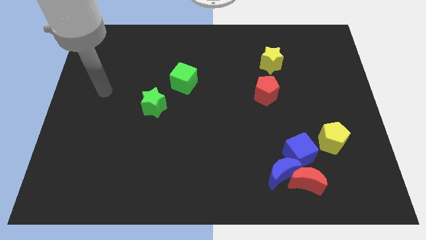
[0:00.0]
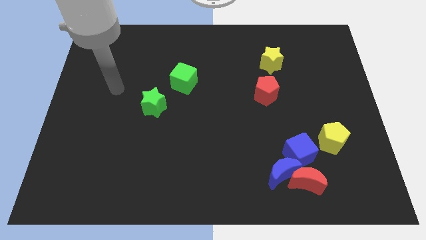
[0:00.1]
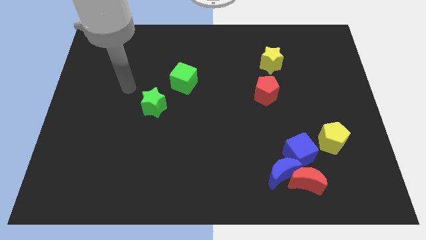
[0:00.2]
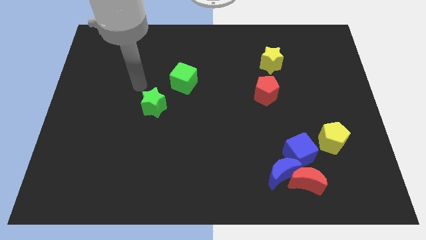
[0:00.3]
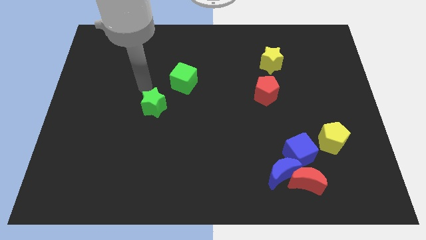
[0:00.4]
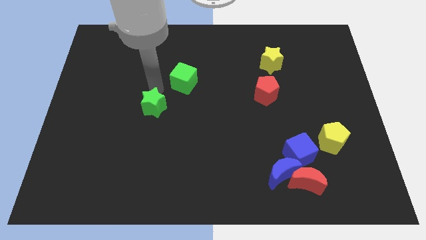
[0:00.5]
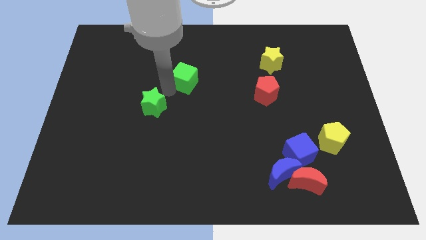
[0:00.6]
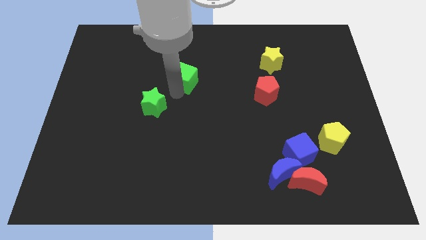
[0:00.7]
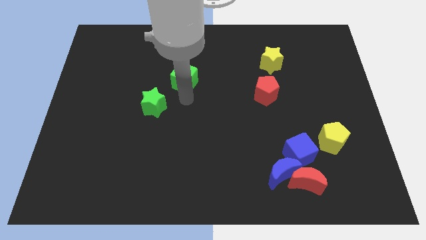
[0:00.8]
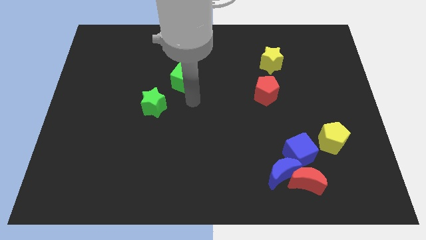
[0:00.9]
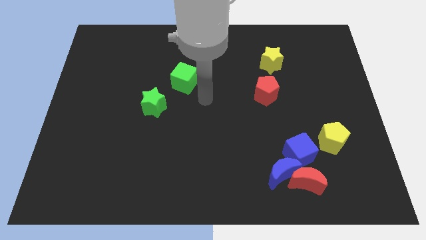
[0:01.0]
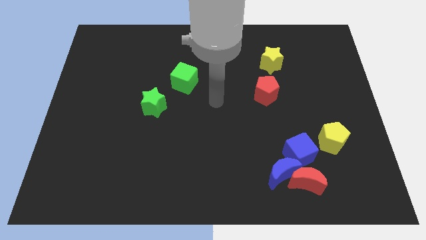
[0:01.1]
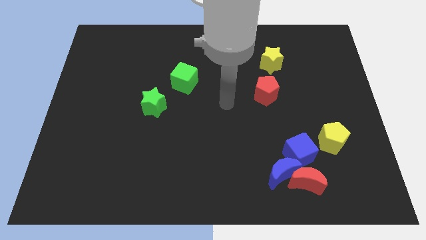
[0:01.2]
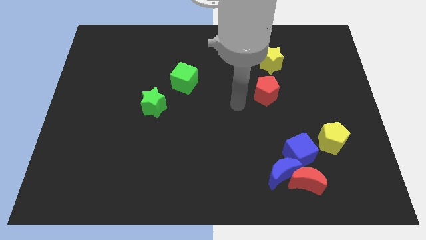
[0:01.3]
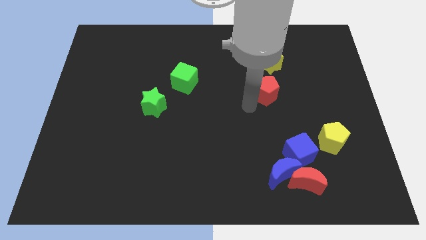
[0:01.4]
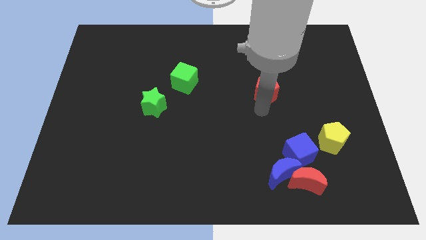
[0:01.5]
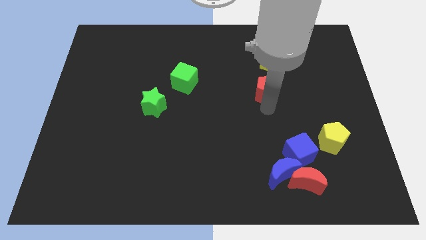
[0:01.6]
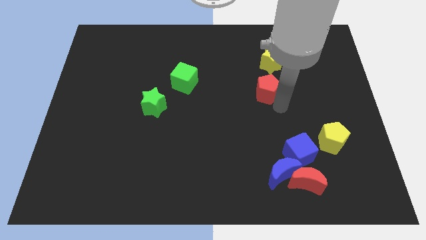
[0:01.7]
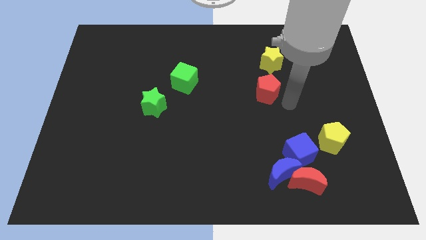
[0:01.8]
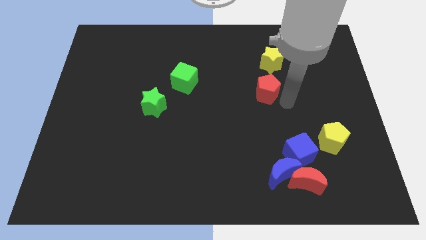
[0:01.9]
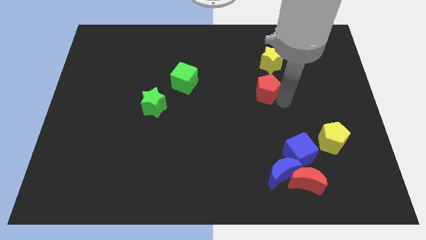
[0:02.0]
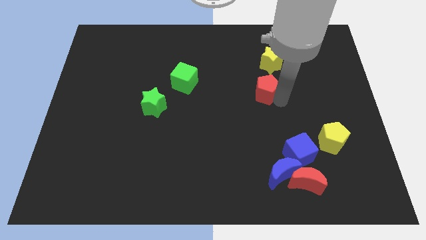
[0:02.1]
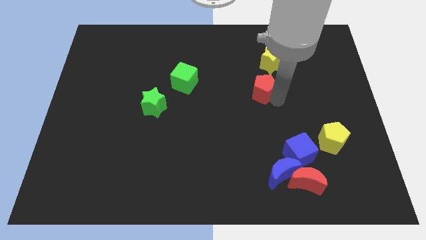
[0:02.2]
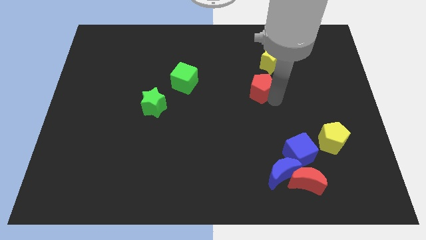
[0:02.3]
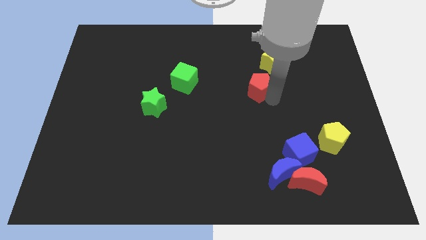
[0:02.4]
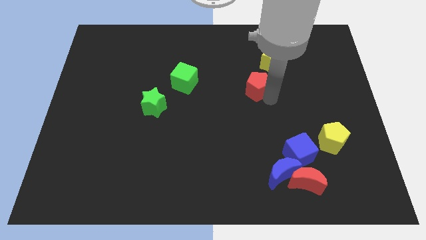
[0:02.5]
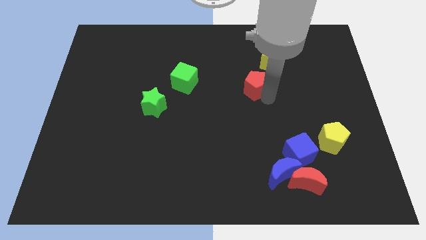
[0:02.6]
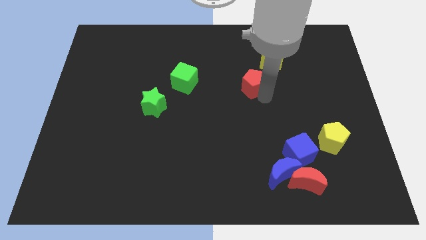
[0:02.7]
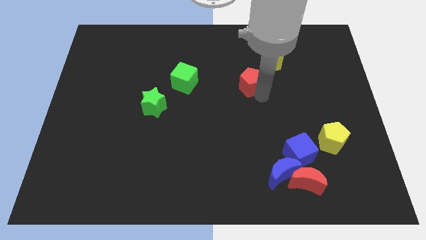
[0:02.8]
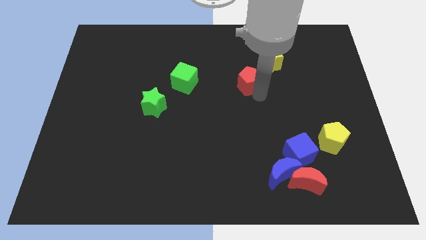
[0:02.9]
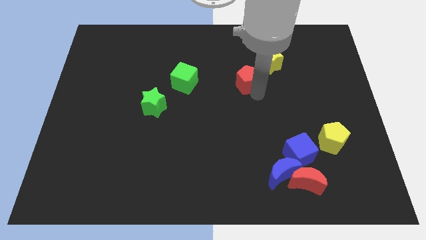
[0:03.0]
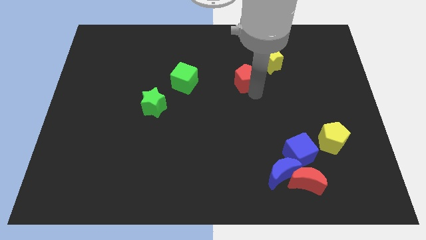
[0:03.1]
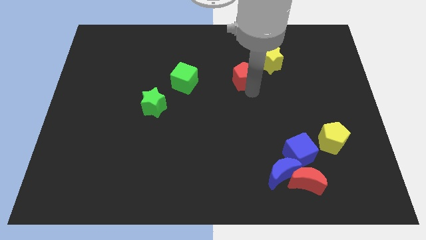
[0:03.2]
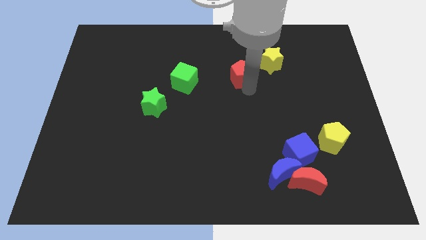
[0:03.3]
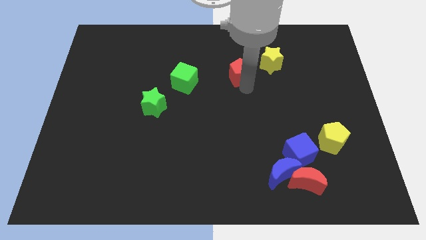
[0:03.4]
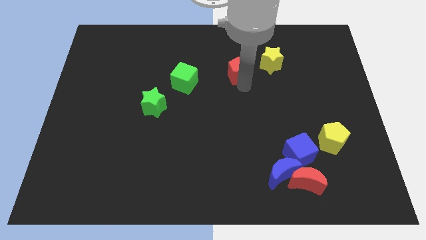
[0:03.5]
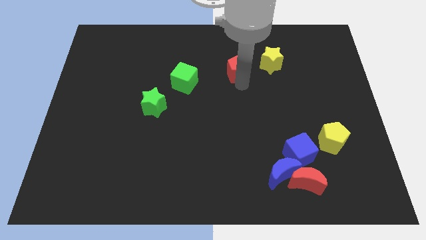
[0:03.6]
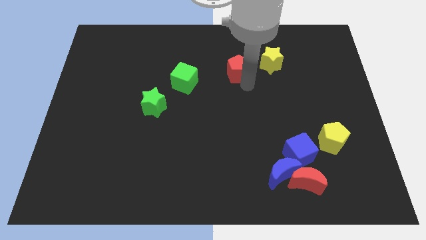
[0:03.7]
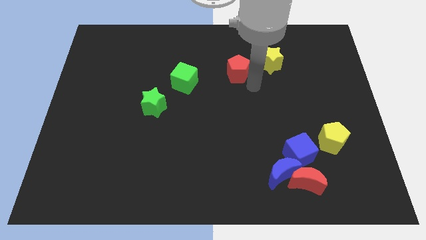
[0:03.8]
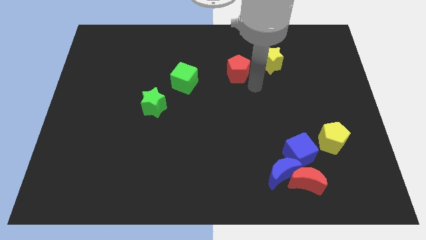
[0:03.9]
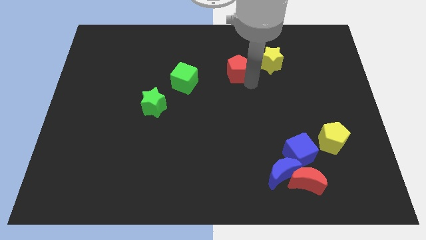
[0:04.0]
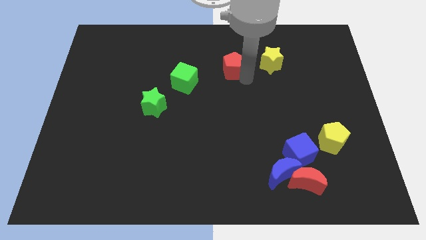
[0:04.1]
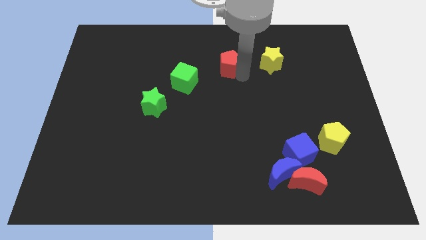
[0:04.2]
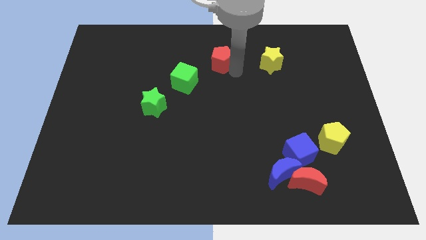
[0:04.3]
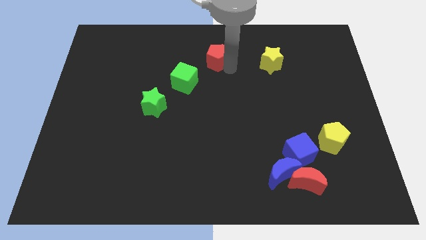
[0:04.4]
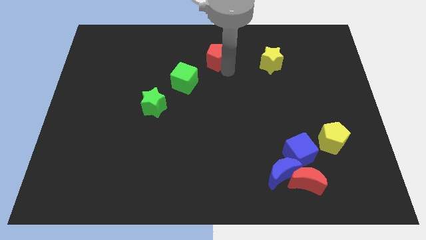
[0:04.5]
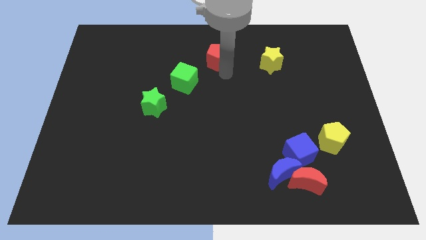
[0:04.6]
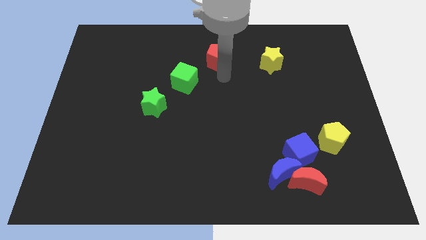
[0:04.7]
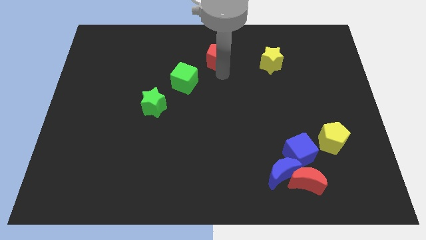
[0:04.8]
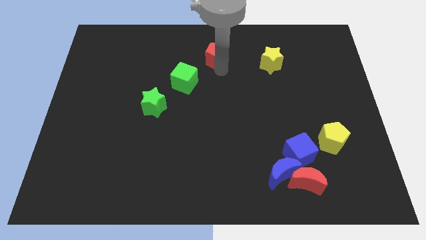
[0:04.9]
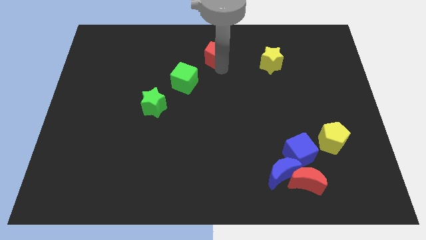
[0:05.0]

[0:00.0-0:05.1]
put the red pentagon to the top

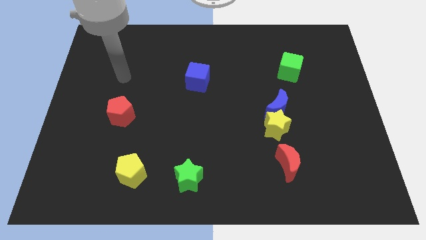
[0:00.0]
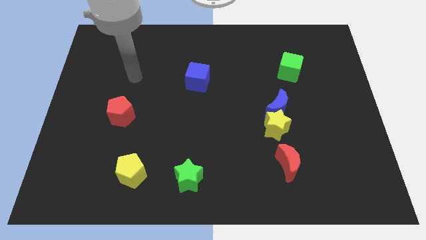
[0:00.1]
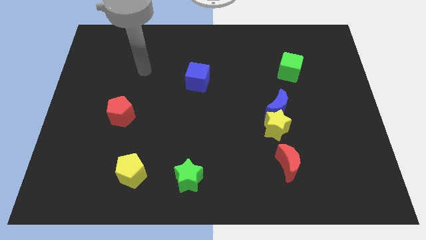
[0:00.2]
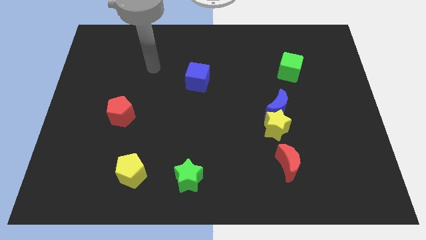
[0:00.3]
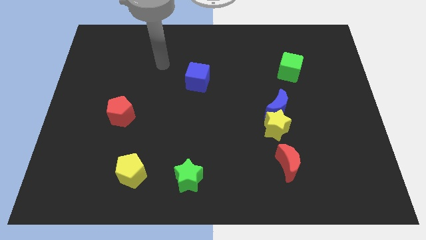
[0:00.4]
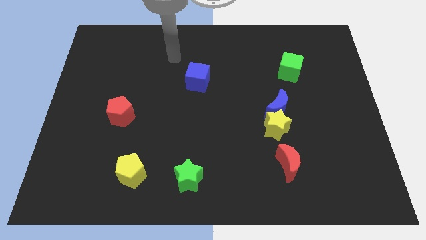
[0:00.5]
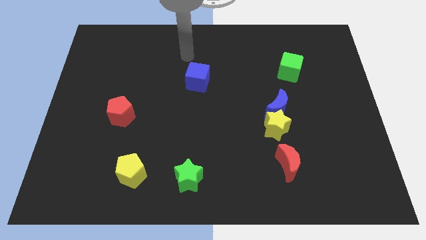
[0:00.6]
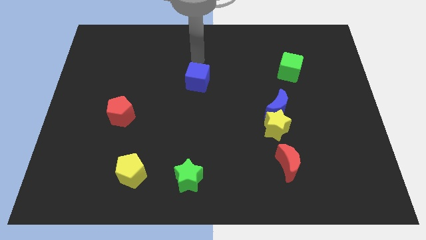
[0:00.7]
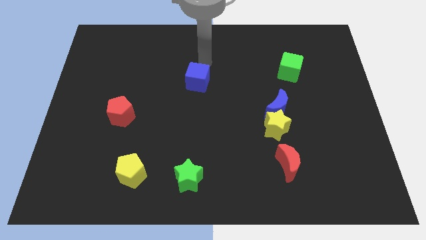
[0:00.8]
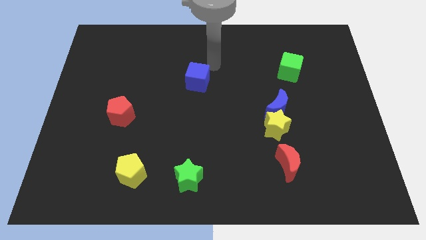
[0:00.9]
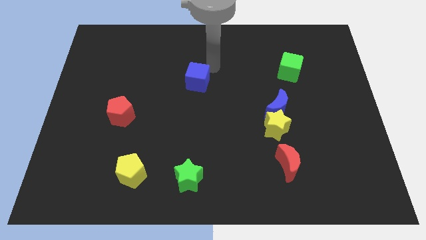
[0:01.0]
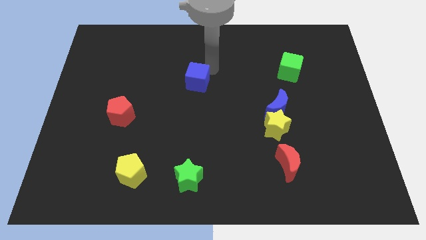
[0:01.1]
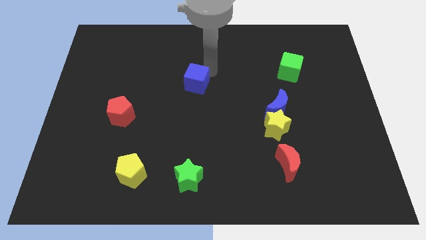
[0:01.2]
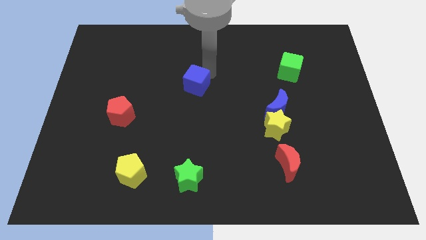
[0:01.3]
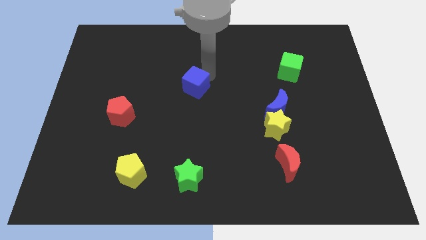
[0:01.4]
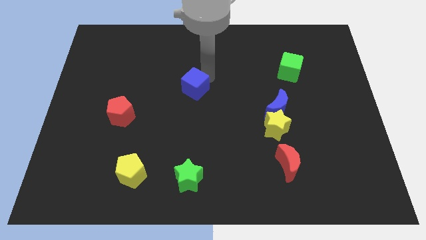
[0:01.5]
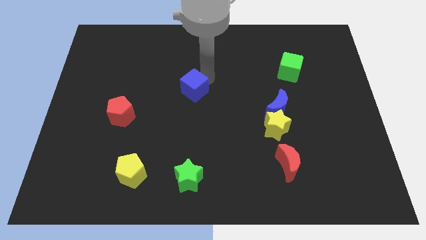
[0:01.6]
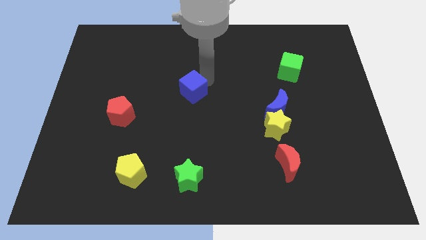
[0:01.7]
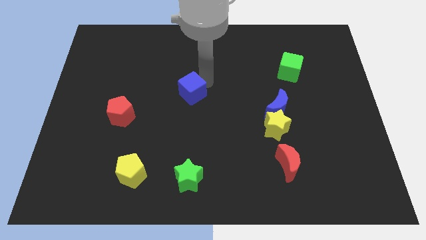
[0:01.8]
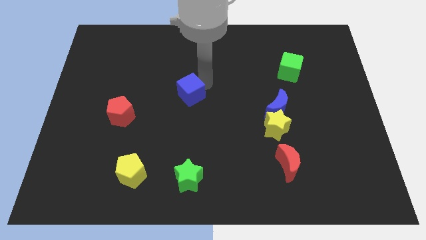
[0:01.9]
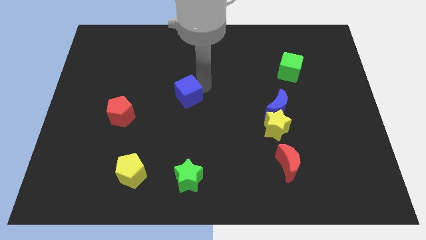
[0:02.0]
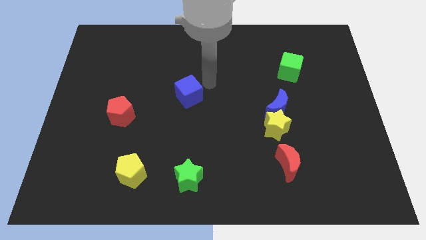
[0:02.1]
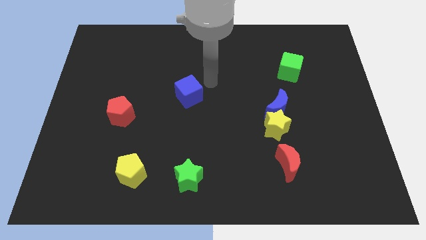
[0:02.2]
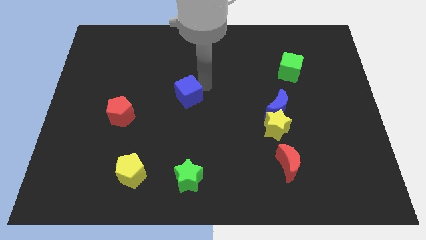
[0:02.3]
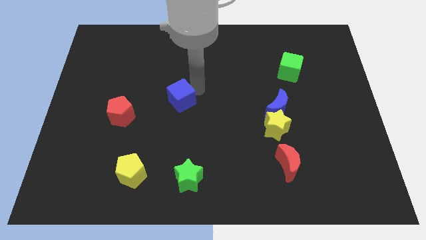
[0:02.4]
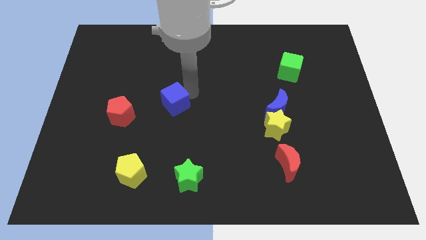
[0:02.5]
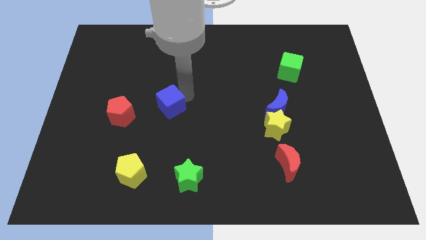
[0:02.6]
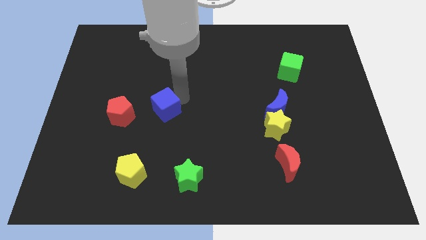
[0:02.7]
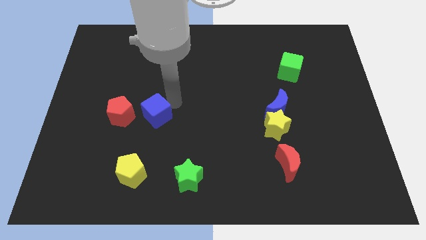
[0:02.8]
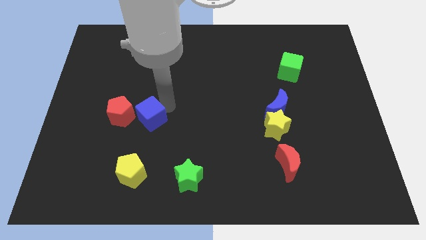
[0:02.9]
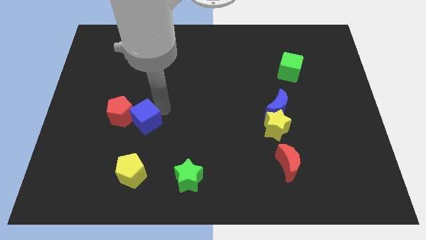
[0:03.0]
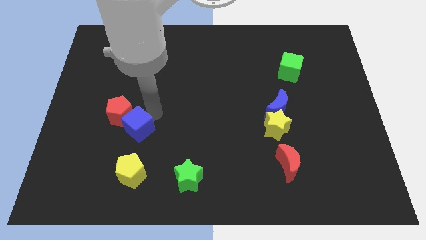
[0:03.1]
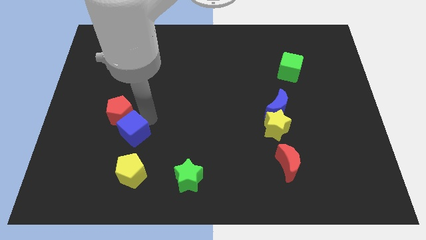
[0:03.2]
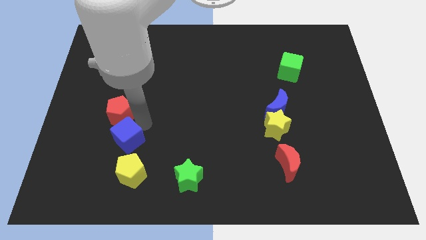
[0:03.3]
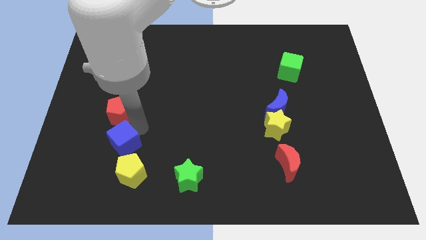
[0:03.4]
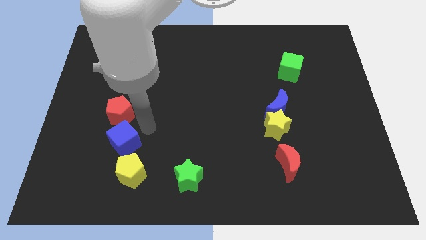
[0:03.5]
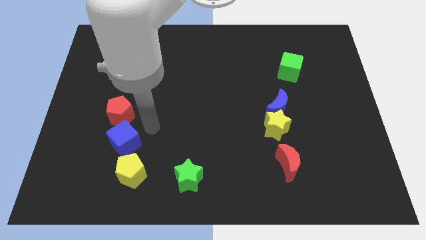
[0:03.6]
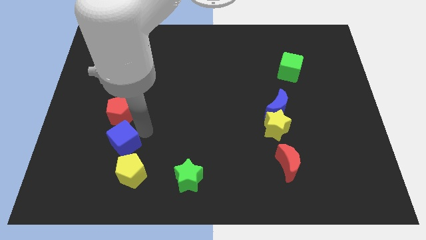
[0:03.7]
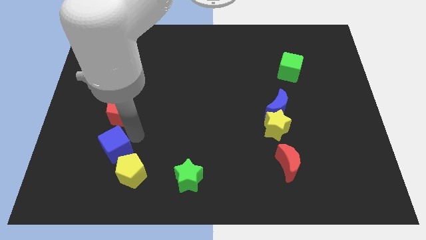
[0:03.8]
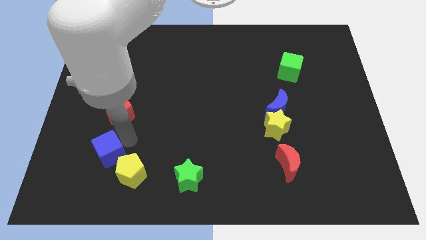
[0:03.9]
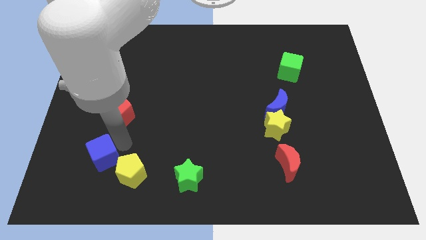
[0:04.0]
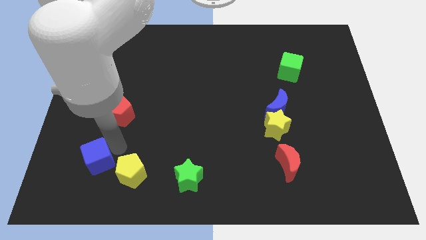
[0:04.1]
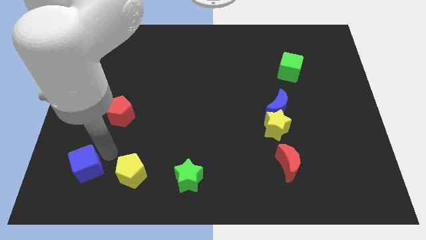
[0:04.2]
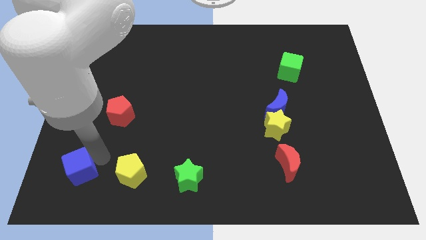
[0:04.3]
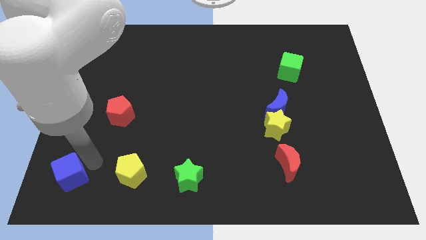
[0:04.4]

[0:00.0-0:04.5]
push the blue cube to the lower left corner
